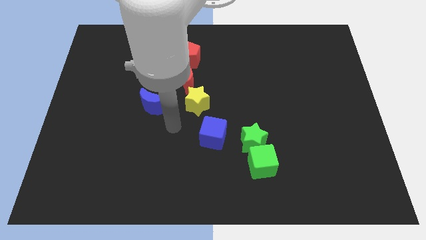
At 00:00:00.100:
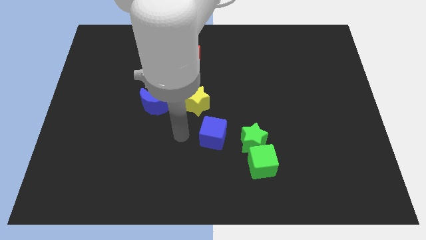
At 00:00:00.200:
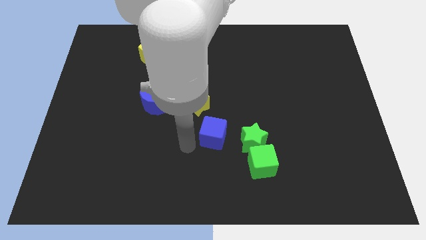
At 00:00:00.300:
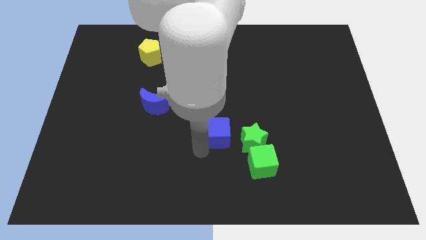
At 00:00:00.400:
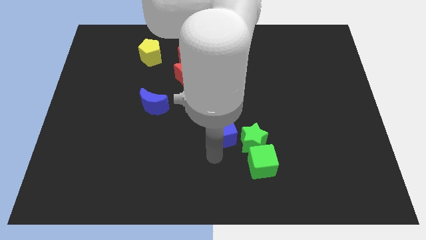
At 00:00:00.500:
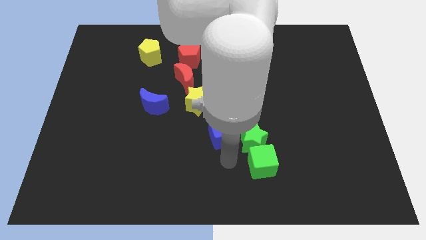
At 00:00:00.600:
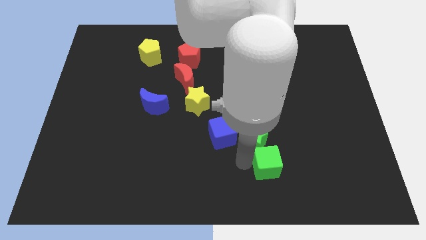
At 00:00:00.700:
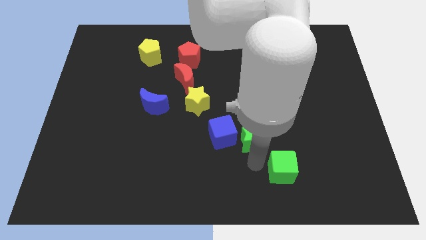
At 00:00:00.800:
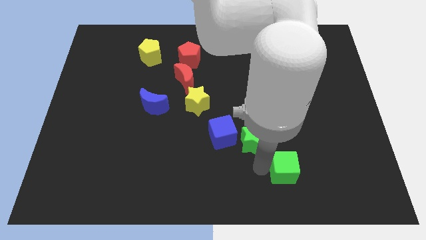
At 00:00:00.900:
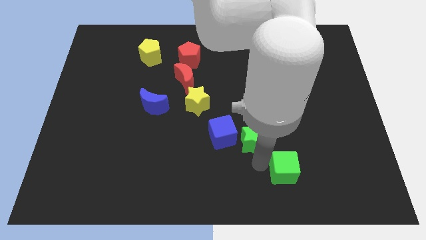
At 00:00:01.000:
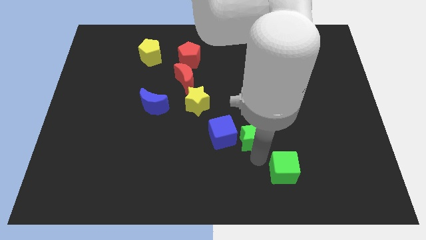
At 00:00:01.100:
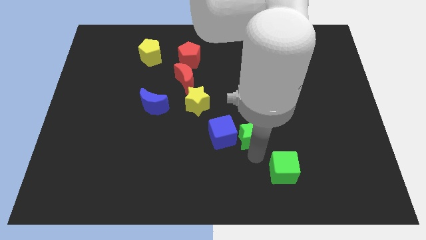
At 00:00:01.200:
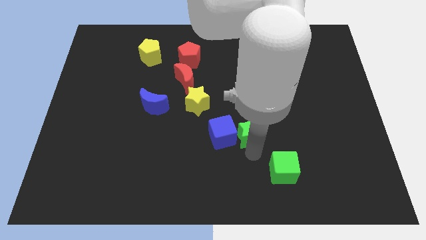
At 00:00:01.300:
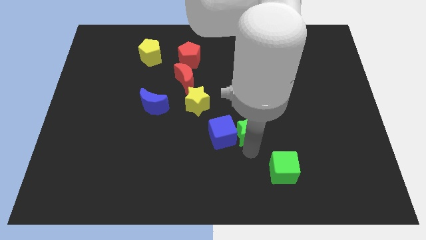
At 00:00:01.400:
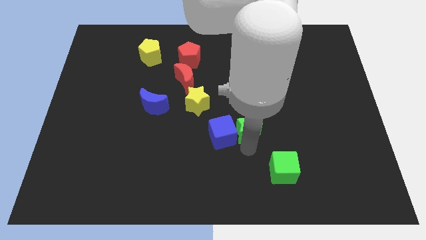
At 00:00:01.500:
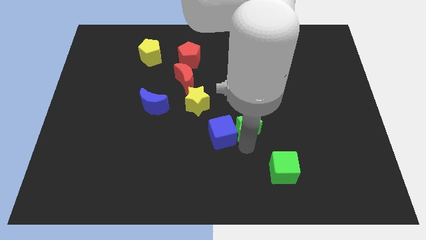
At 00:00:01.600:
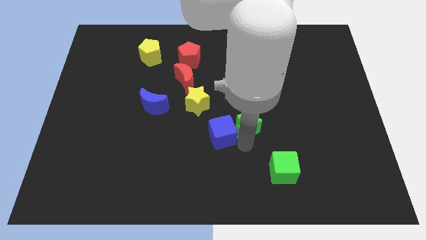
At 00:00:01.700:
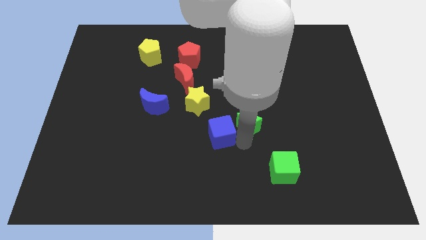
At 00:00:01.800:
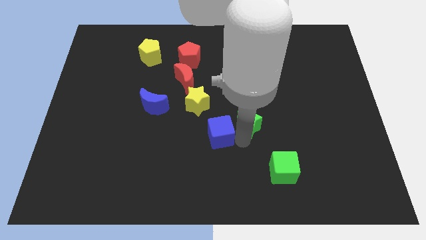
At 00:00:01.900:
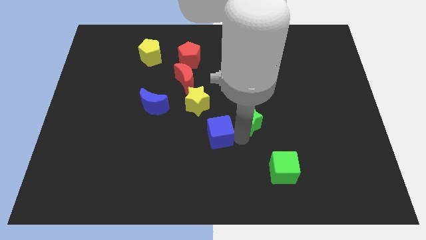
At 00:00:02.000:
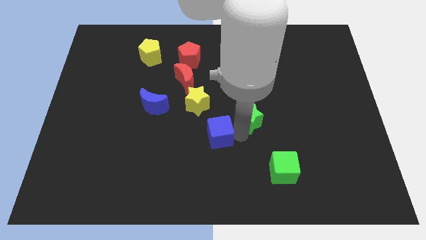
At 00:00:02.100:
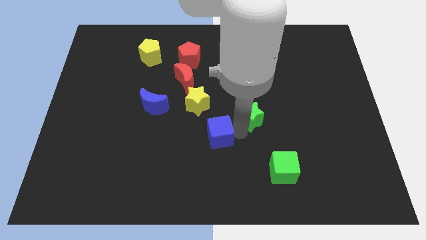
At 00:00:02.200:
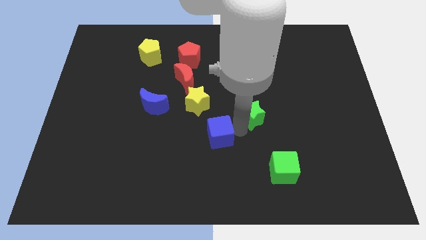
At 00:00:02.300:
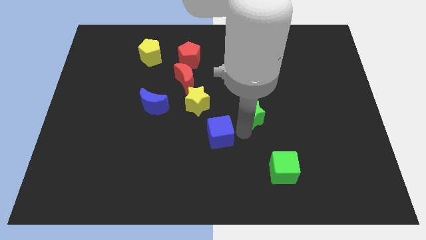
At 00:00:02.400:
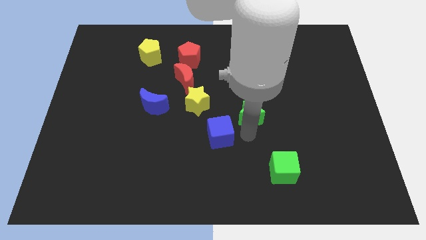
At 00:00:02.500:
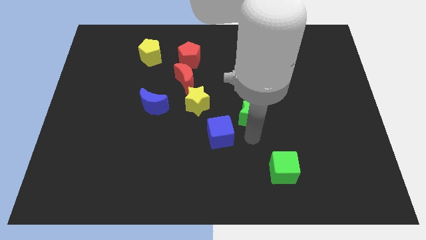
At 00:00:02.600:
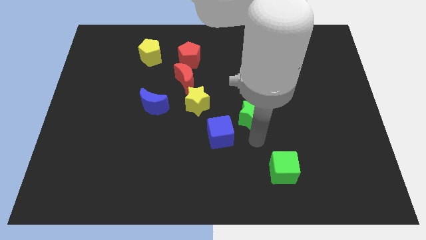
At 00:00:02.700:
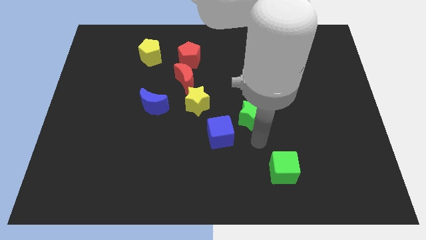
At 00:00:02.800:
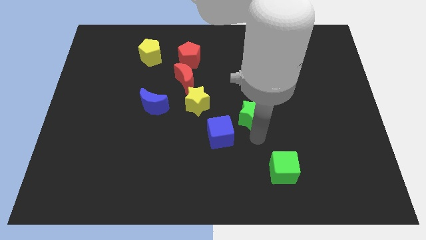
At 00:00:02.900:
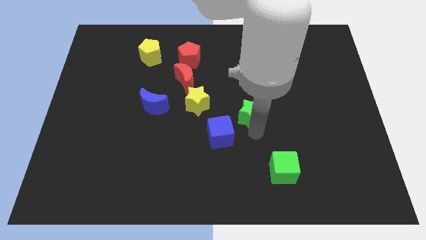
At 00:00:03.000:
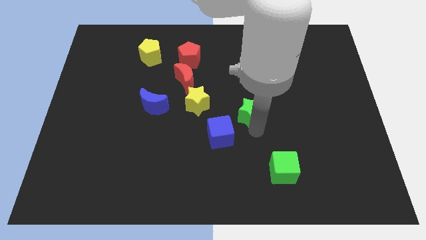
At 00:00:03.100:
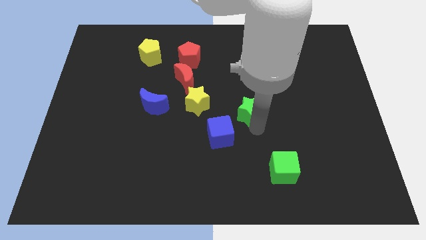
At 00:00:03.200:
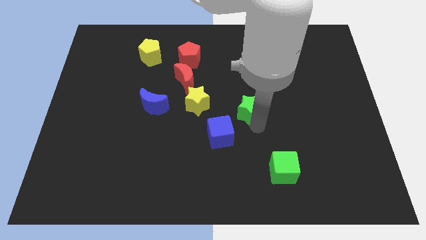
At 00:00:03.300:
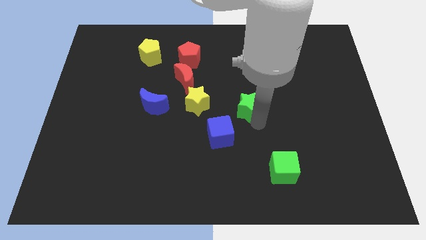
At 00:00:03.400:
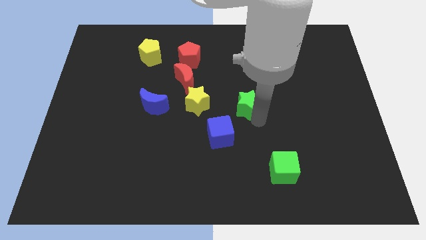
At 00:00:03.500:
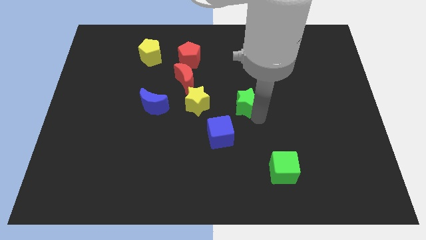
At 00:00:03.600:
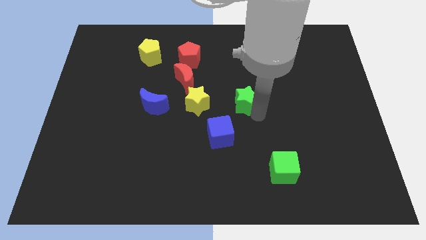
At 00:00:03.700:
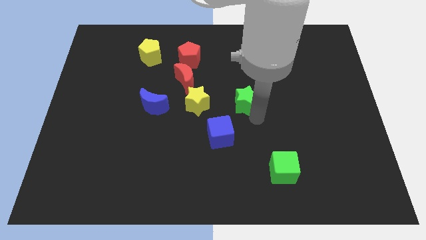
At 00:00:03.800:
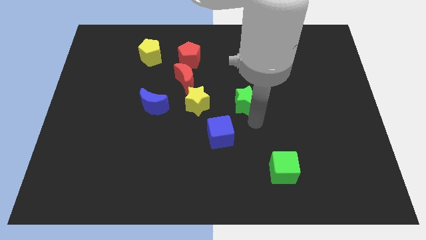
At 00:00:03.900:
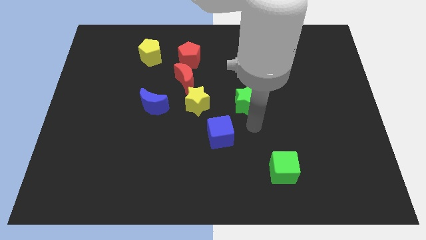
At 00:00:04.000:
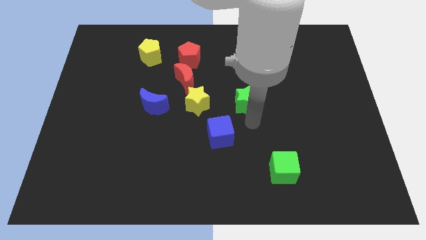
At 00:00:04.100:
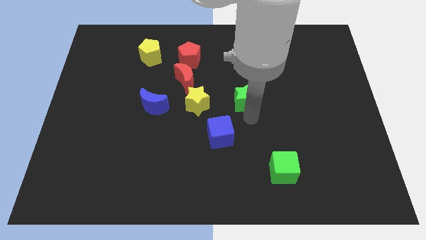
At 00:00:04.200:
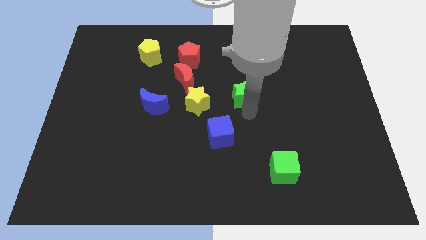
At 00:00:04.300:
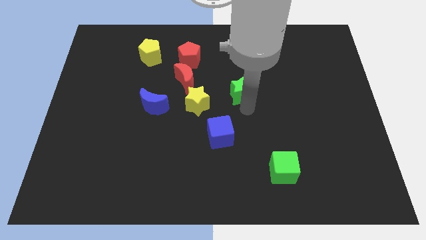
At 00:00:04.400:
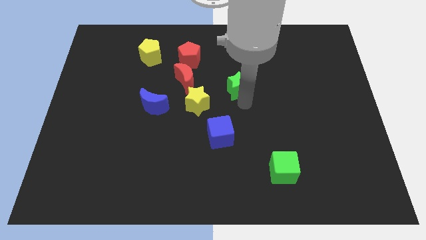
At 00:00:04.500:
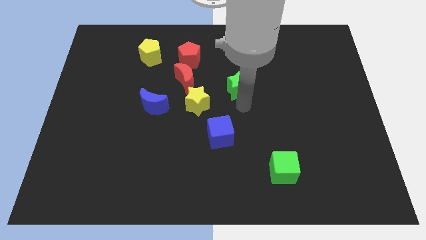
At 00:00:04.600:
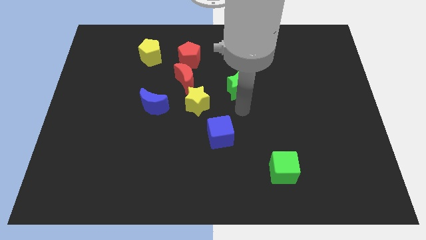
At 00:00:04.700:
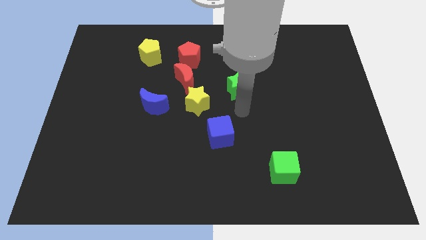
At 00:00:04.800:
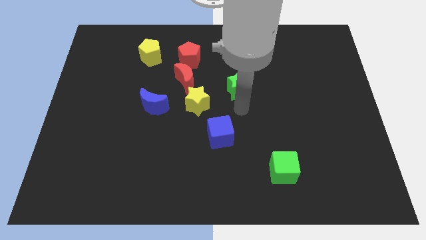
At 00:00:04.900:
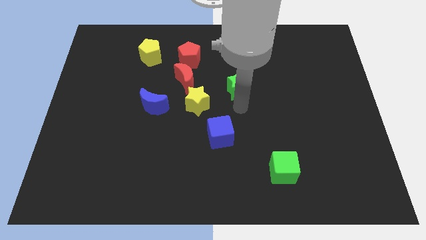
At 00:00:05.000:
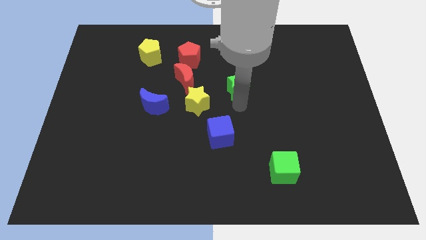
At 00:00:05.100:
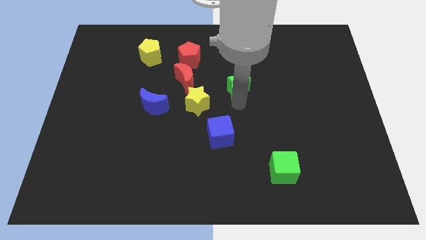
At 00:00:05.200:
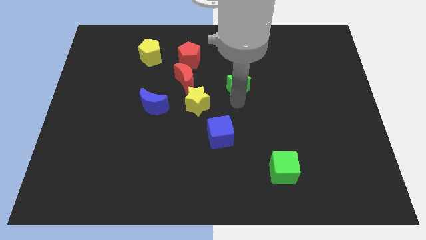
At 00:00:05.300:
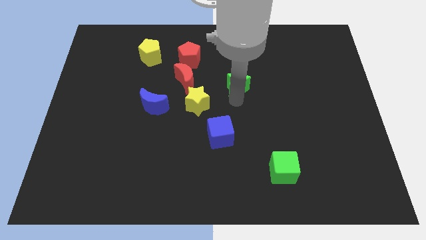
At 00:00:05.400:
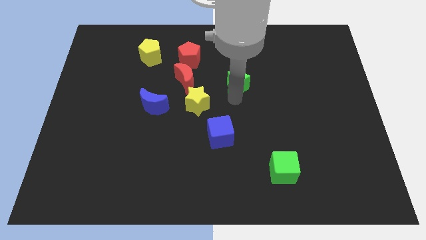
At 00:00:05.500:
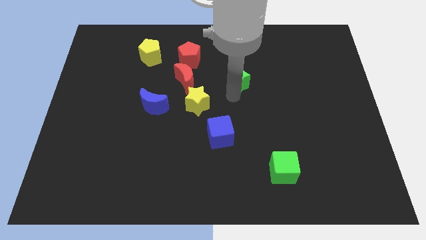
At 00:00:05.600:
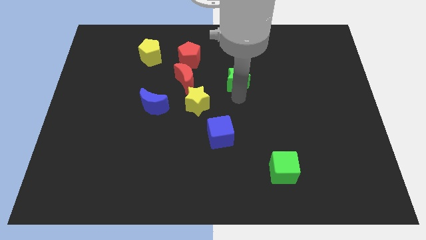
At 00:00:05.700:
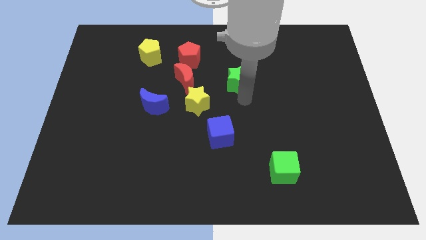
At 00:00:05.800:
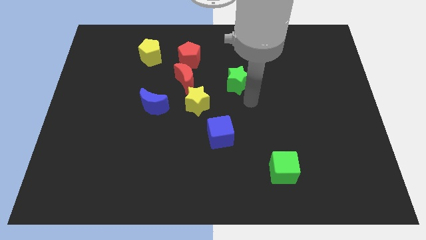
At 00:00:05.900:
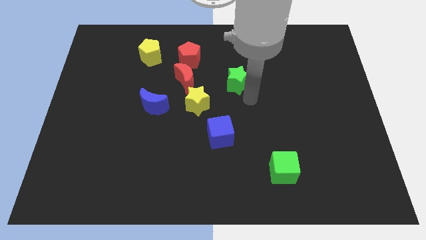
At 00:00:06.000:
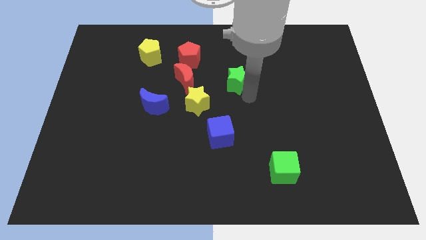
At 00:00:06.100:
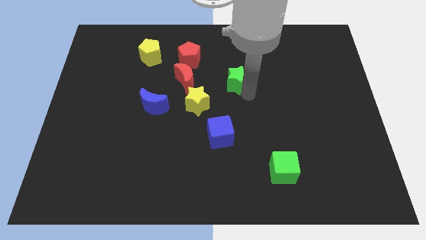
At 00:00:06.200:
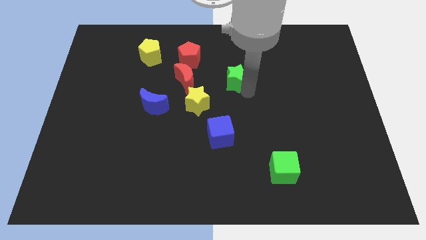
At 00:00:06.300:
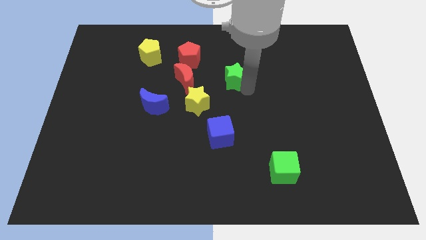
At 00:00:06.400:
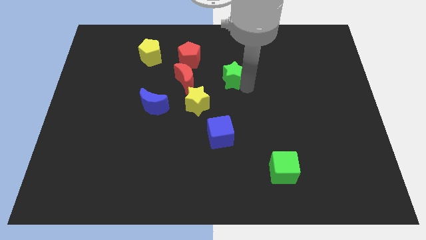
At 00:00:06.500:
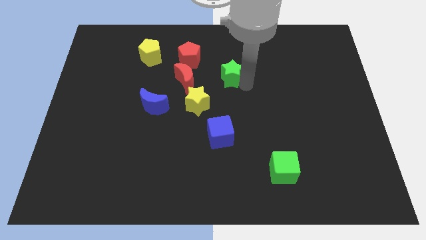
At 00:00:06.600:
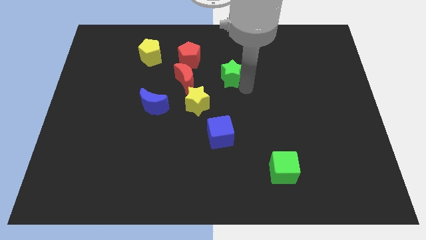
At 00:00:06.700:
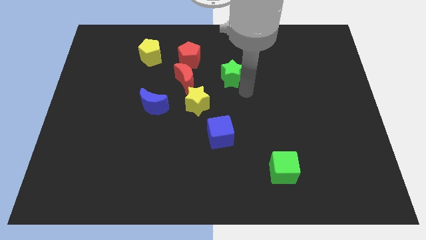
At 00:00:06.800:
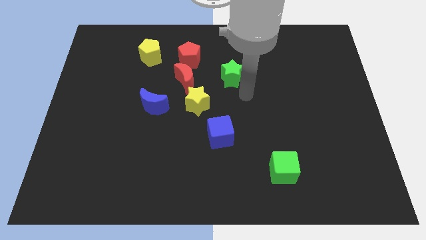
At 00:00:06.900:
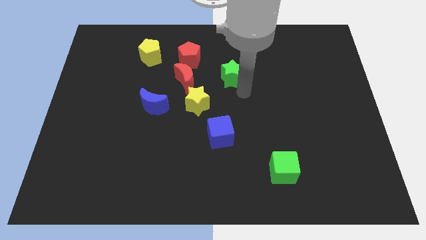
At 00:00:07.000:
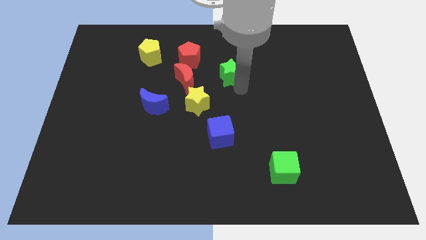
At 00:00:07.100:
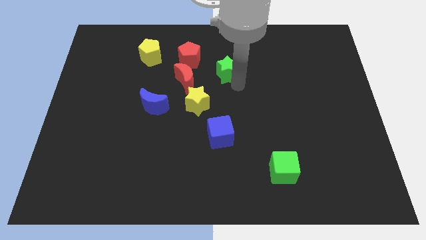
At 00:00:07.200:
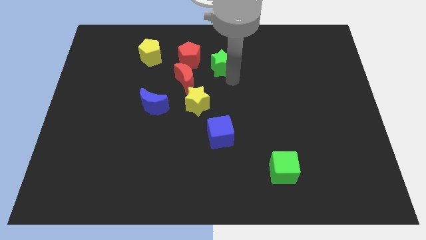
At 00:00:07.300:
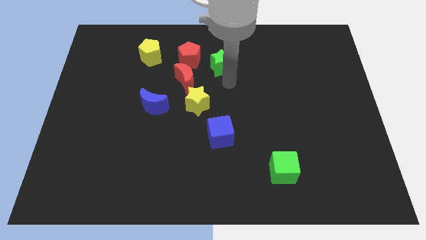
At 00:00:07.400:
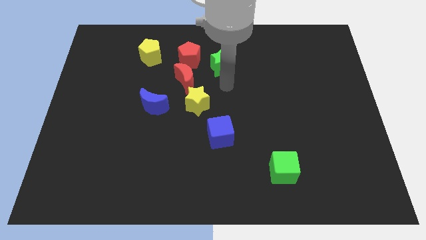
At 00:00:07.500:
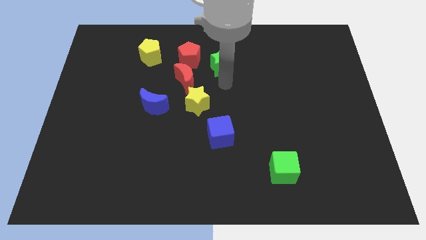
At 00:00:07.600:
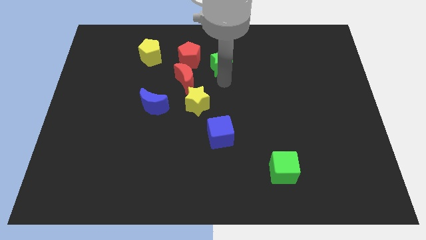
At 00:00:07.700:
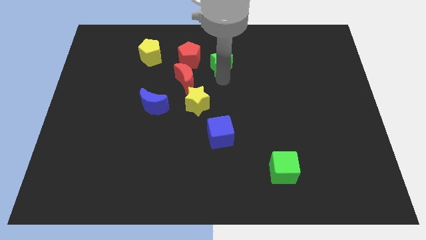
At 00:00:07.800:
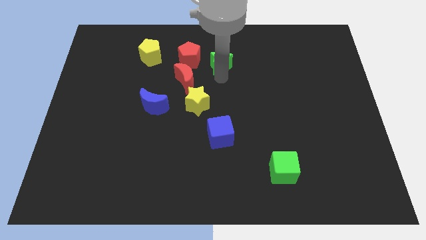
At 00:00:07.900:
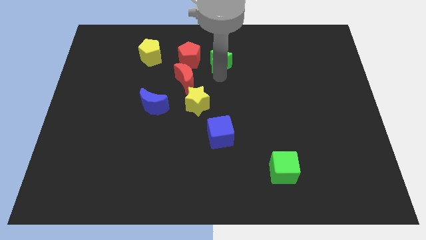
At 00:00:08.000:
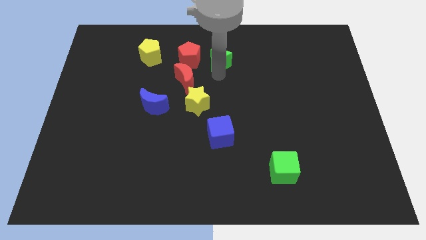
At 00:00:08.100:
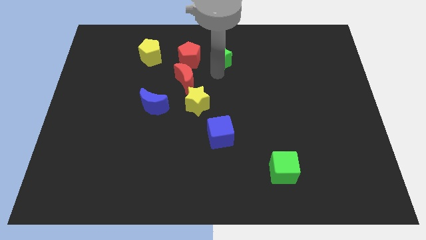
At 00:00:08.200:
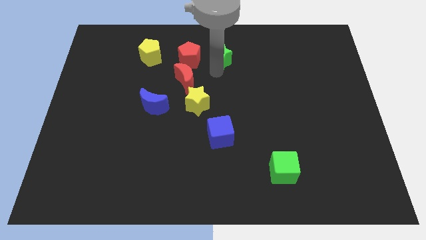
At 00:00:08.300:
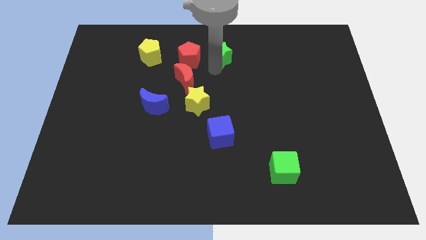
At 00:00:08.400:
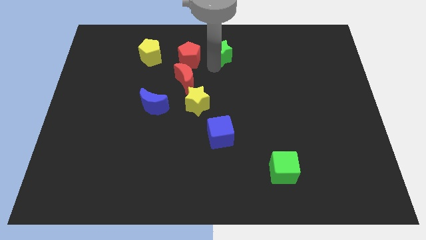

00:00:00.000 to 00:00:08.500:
put the green star to the top side
